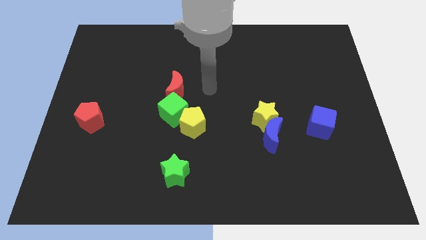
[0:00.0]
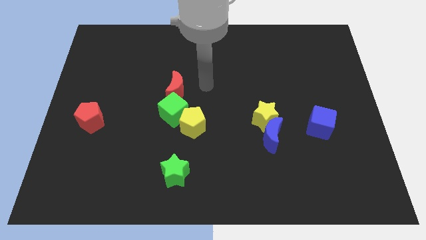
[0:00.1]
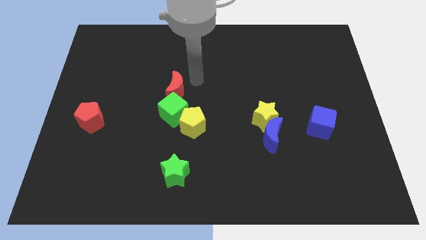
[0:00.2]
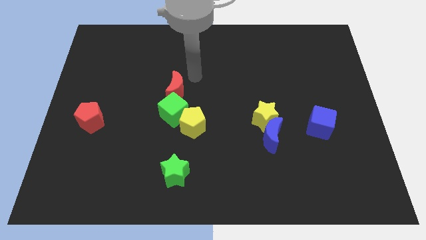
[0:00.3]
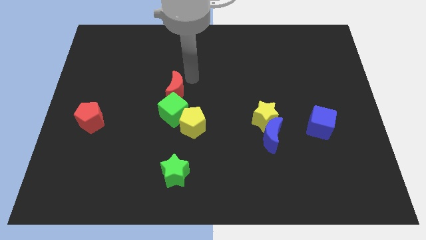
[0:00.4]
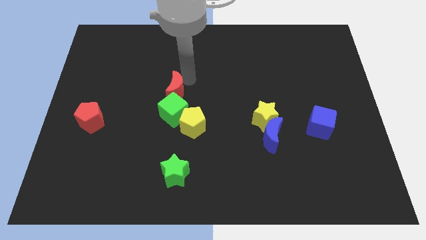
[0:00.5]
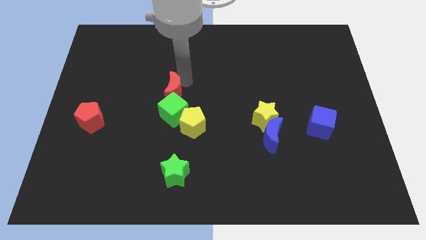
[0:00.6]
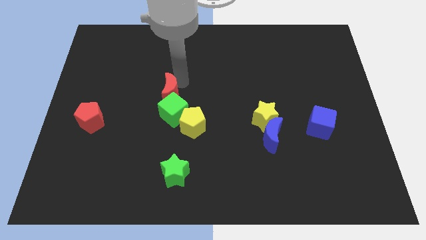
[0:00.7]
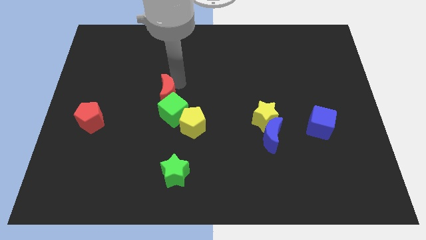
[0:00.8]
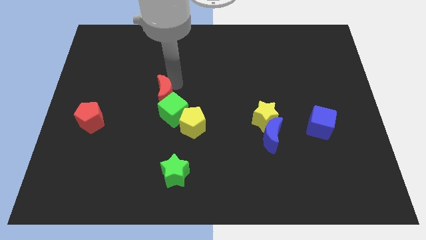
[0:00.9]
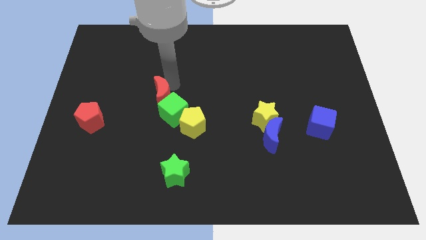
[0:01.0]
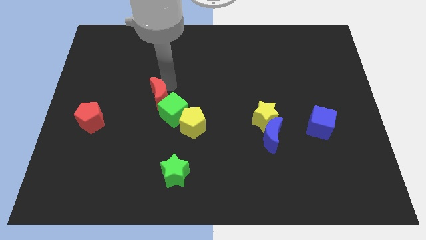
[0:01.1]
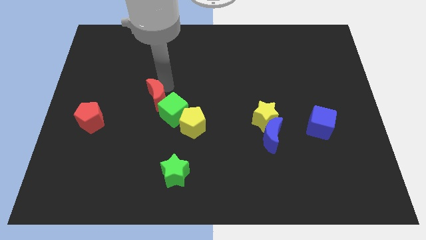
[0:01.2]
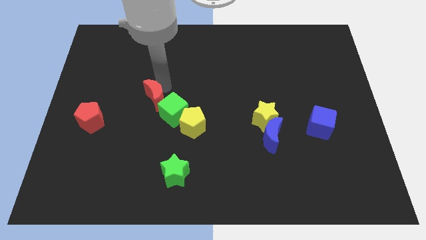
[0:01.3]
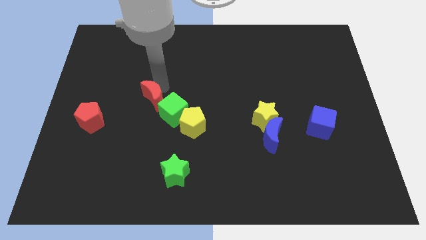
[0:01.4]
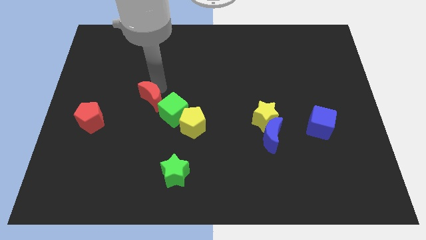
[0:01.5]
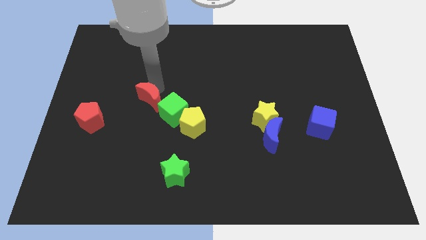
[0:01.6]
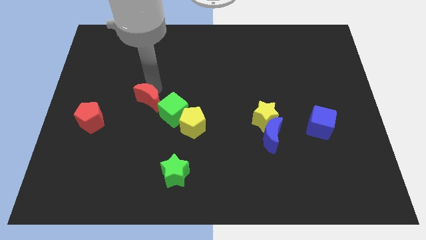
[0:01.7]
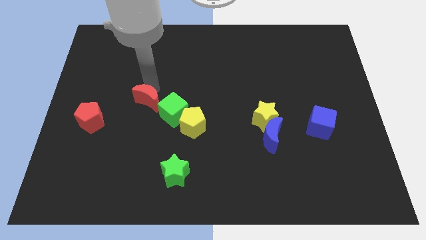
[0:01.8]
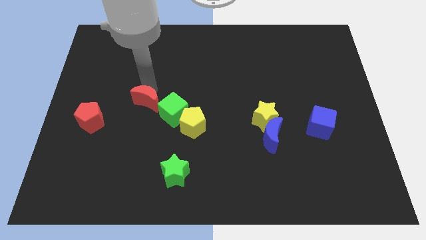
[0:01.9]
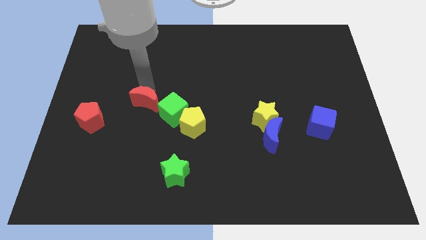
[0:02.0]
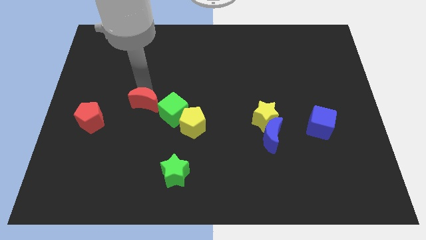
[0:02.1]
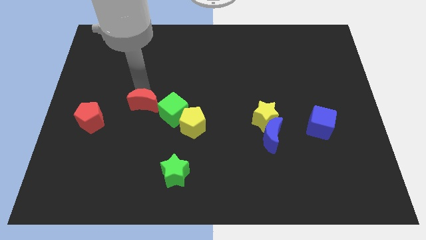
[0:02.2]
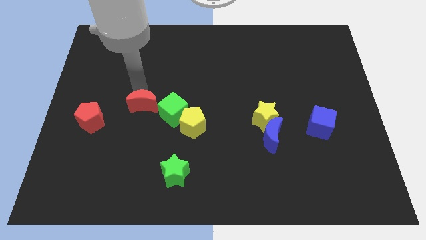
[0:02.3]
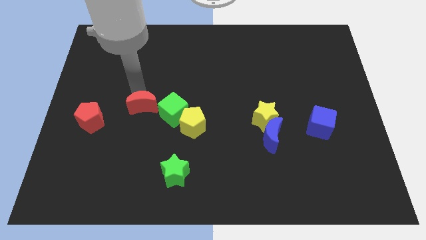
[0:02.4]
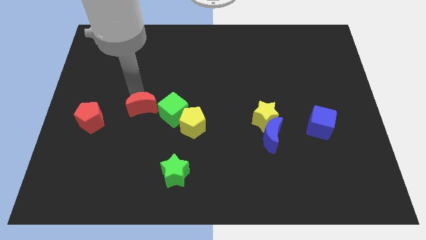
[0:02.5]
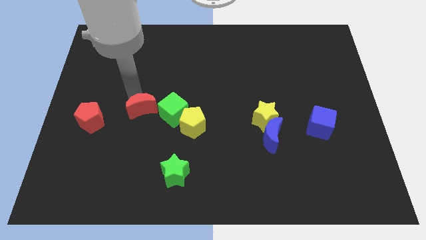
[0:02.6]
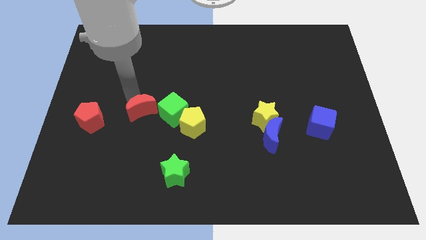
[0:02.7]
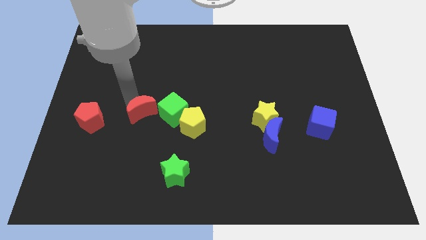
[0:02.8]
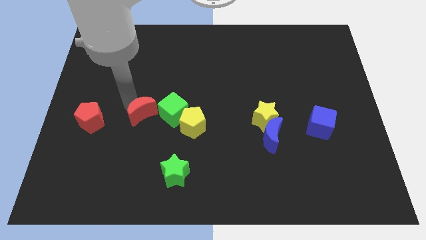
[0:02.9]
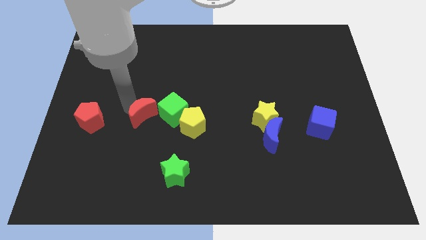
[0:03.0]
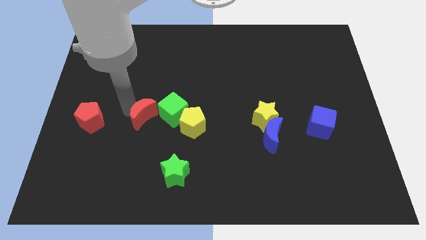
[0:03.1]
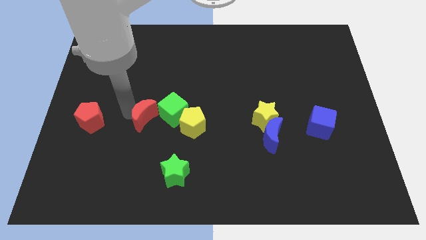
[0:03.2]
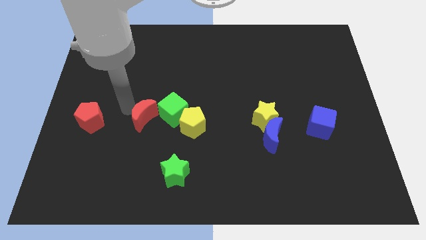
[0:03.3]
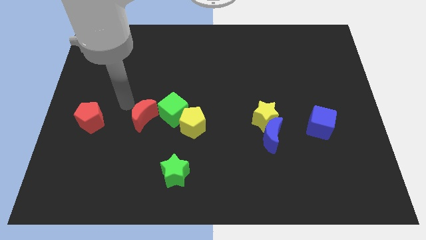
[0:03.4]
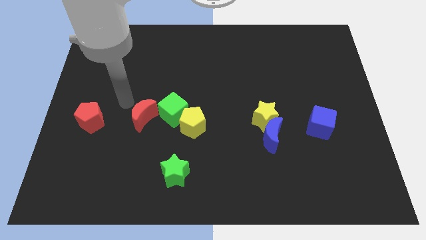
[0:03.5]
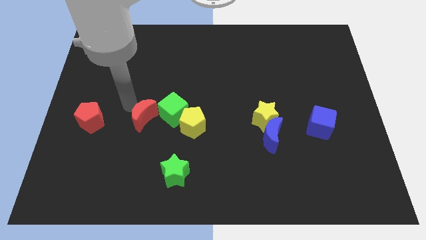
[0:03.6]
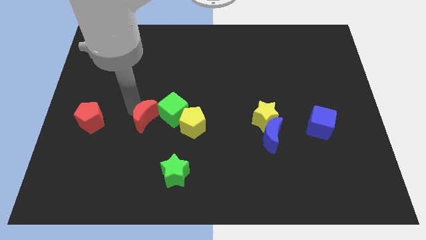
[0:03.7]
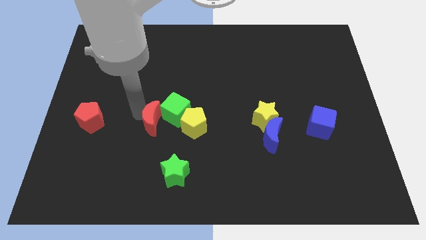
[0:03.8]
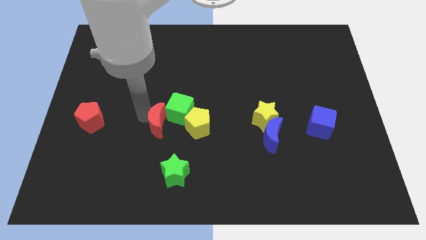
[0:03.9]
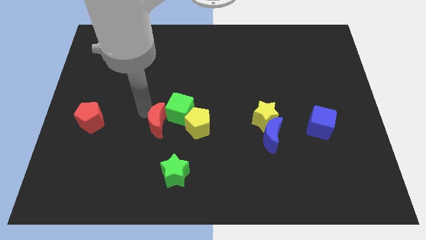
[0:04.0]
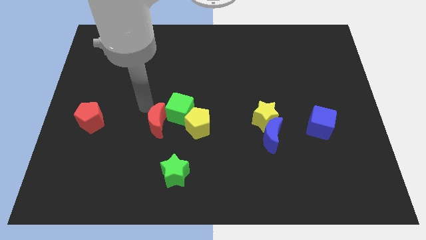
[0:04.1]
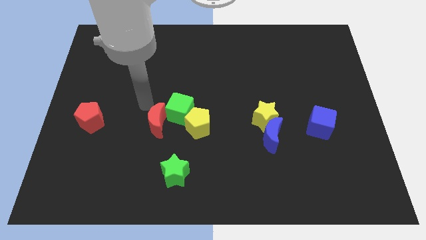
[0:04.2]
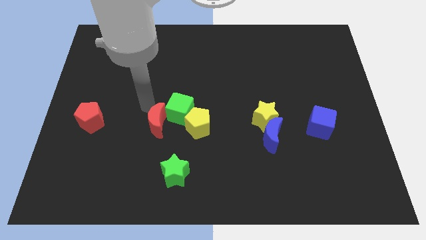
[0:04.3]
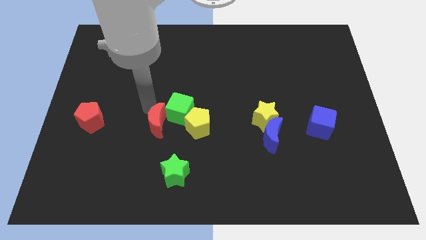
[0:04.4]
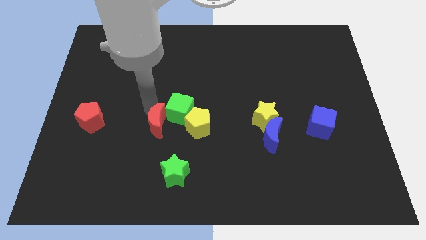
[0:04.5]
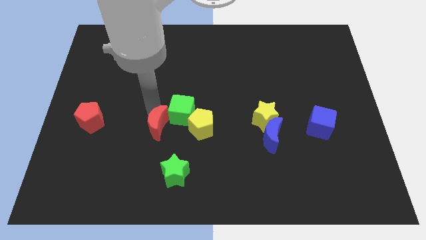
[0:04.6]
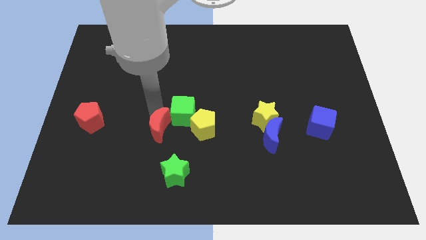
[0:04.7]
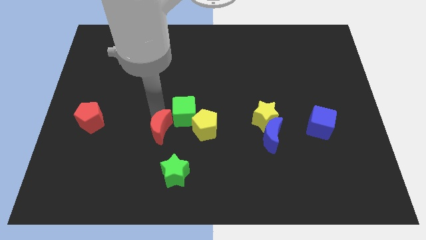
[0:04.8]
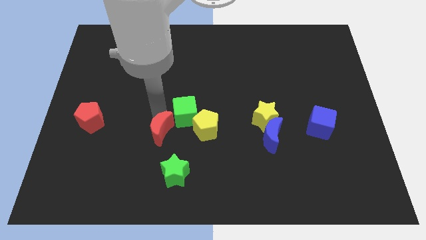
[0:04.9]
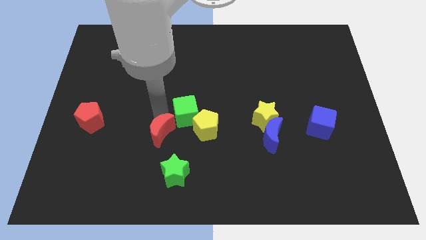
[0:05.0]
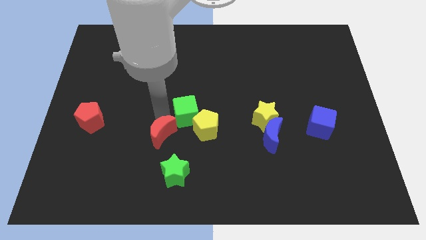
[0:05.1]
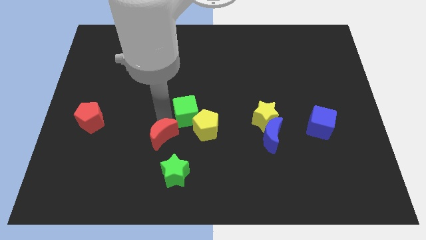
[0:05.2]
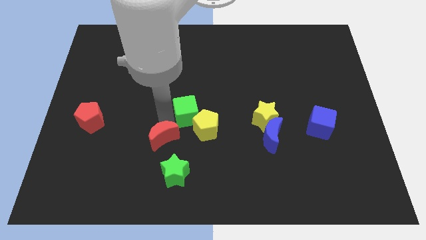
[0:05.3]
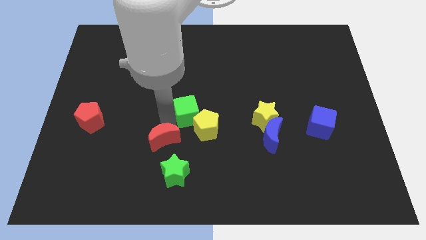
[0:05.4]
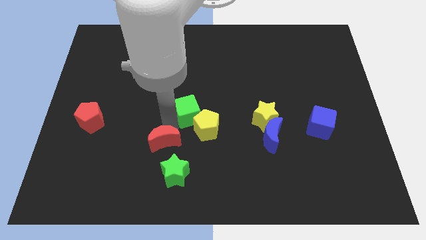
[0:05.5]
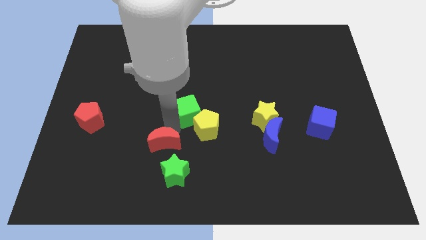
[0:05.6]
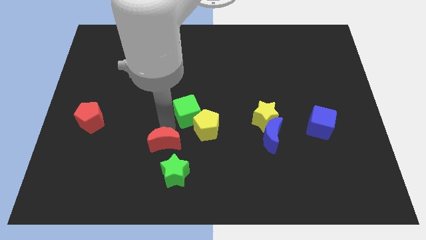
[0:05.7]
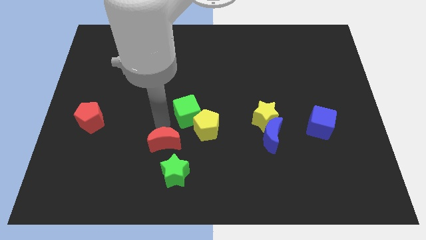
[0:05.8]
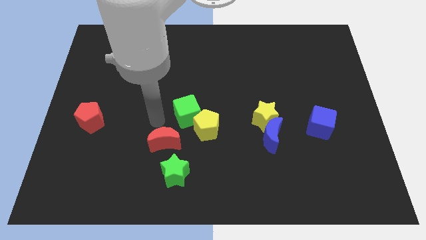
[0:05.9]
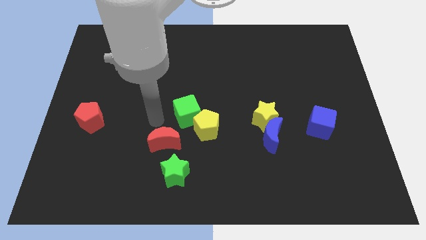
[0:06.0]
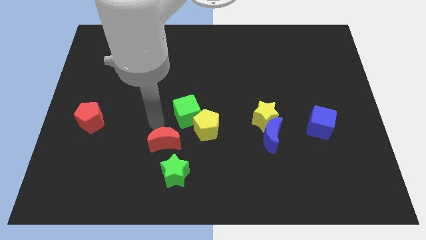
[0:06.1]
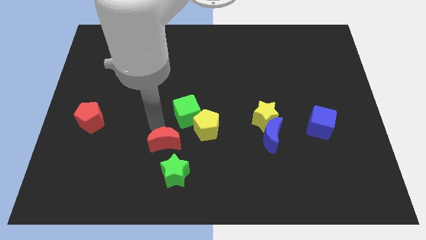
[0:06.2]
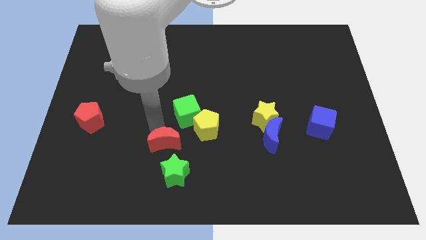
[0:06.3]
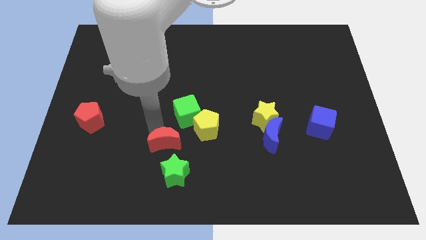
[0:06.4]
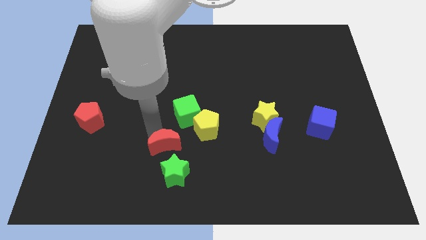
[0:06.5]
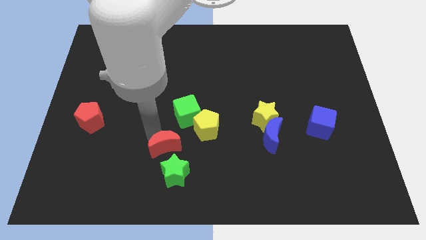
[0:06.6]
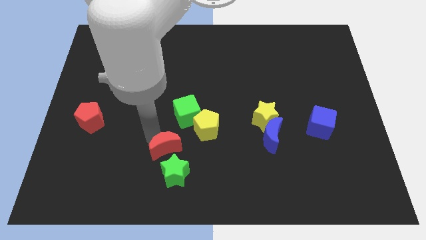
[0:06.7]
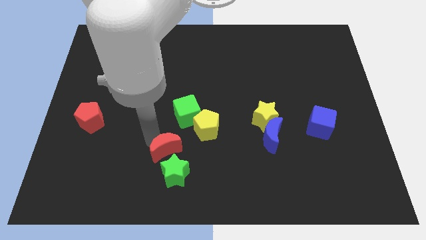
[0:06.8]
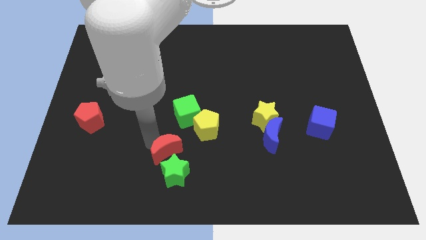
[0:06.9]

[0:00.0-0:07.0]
put the red moon towards the green star

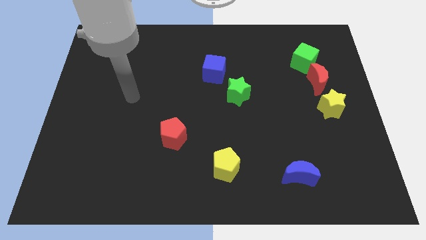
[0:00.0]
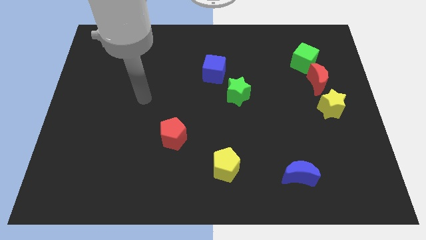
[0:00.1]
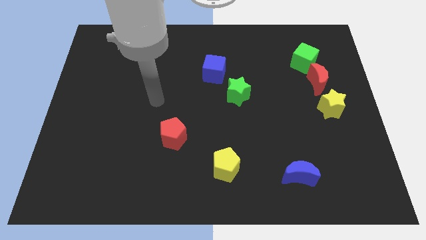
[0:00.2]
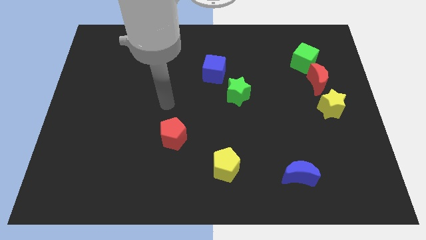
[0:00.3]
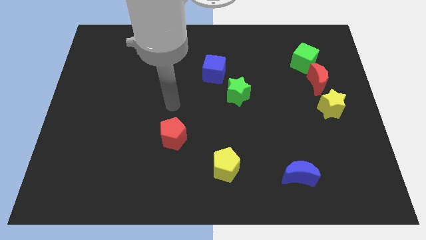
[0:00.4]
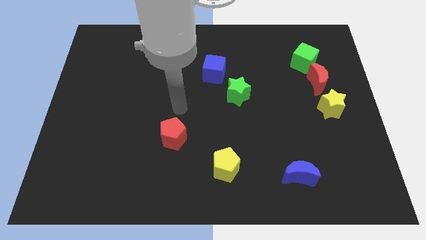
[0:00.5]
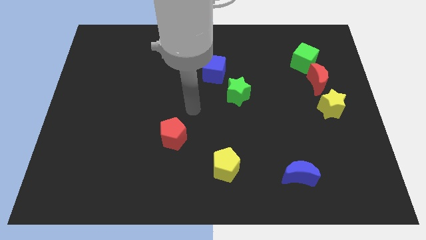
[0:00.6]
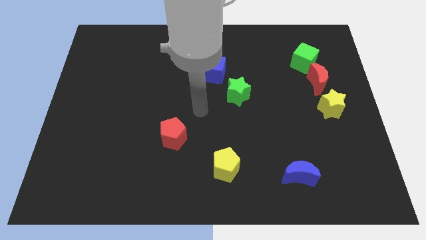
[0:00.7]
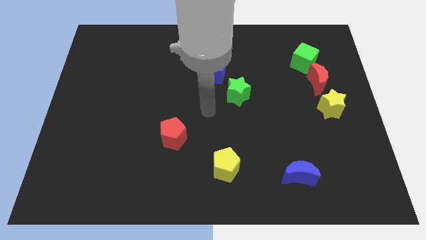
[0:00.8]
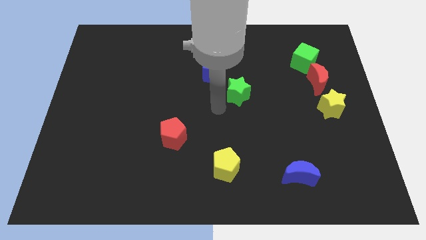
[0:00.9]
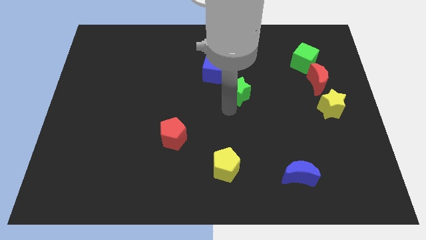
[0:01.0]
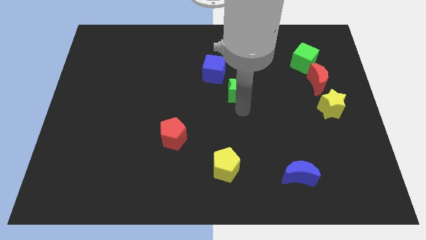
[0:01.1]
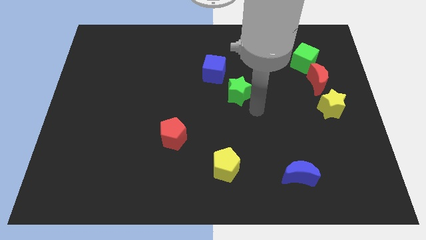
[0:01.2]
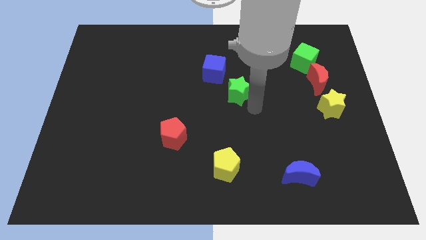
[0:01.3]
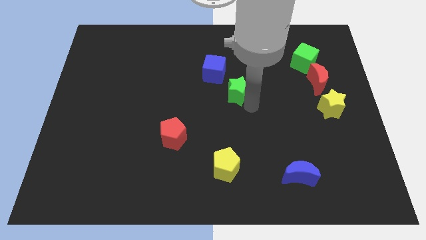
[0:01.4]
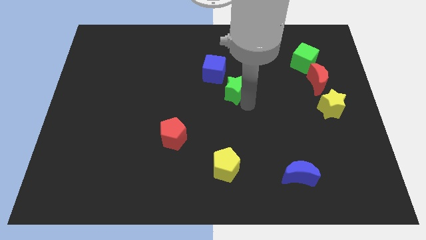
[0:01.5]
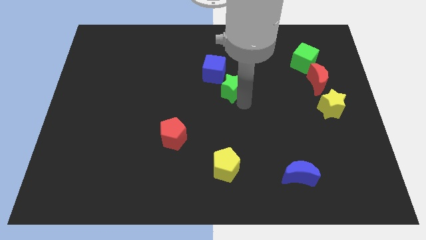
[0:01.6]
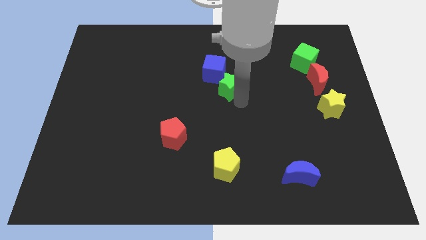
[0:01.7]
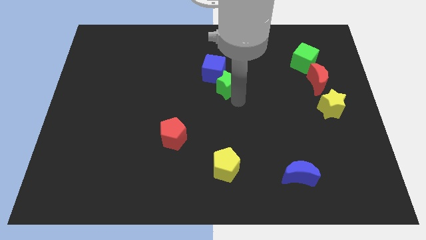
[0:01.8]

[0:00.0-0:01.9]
slide the green star towards the blue cube
